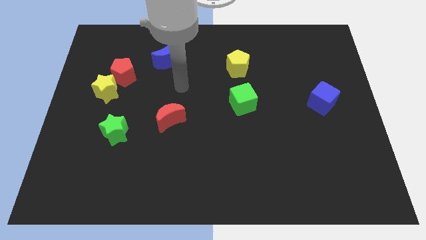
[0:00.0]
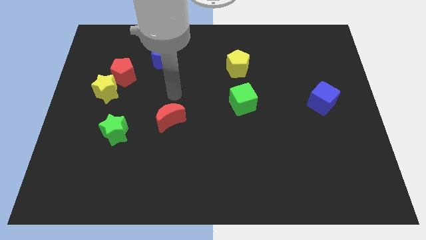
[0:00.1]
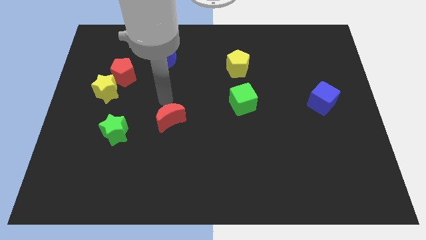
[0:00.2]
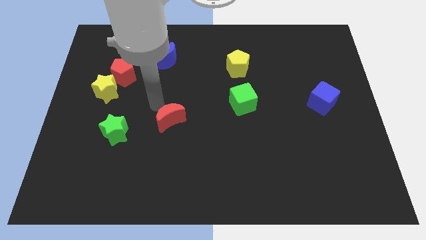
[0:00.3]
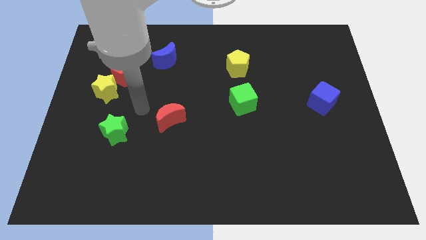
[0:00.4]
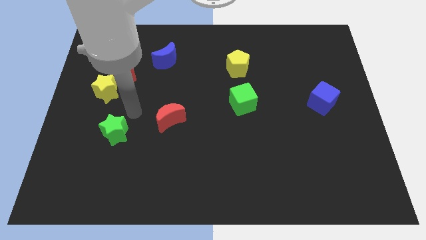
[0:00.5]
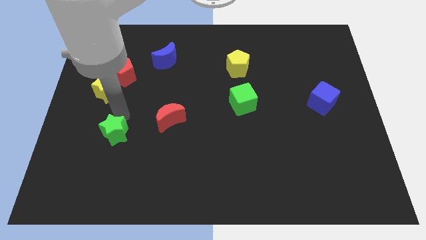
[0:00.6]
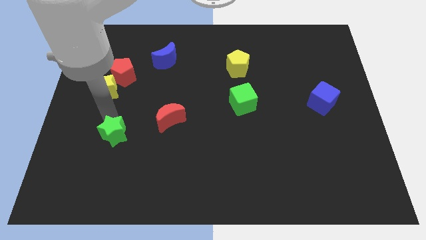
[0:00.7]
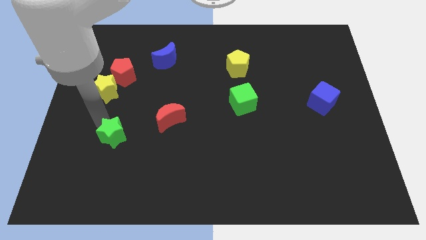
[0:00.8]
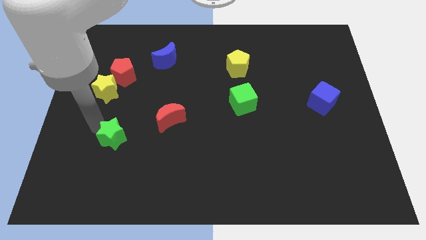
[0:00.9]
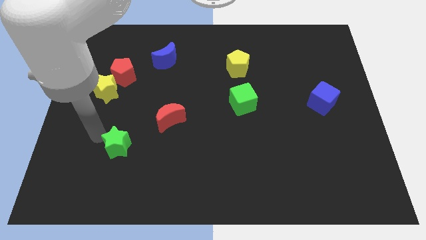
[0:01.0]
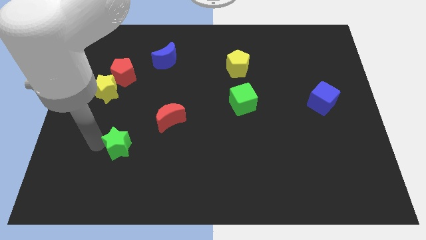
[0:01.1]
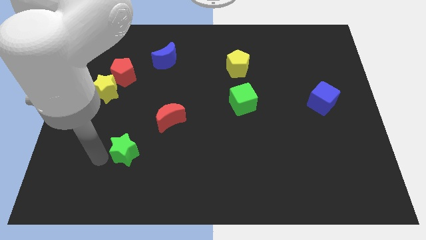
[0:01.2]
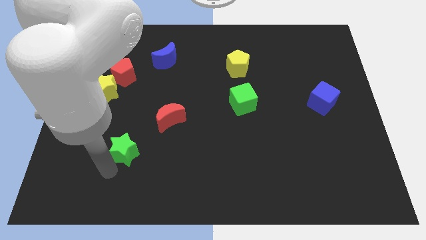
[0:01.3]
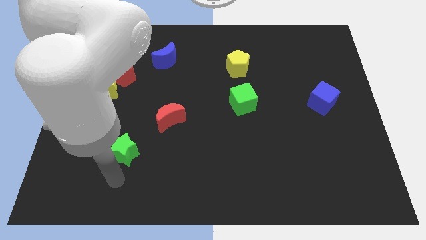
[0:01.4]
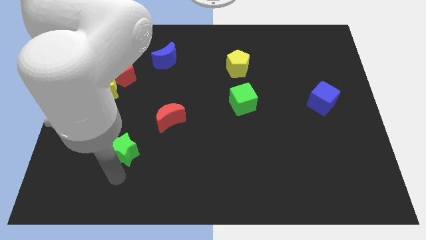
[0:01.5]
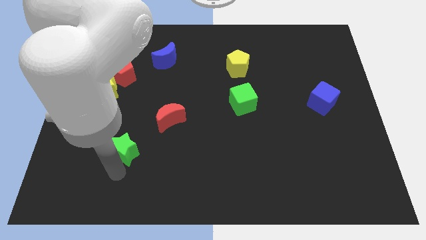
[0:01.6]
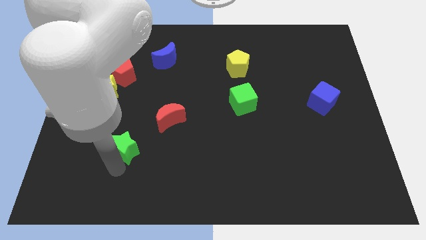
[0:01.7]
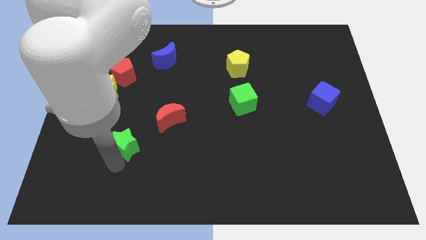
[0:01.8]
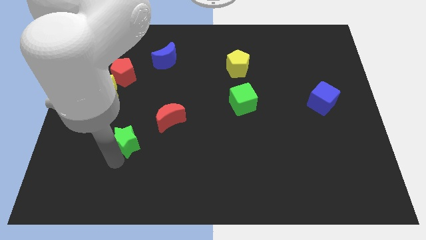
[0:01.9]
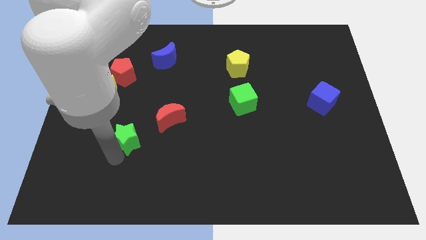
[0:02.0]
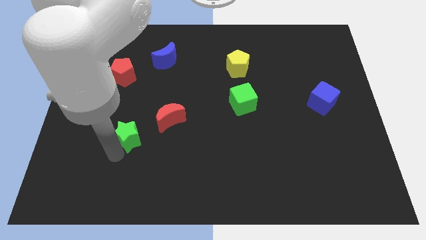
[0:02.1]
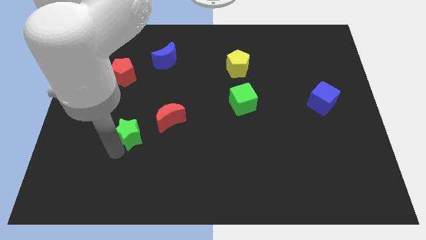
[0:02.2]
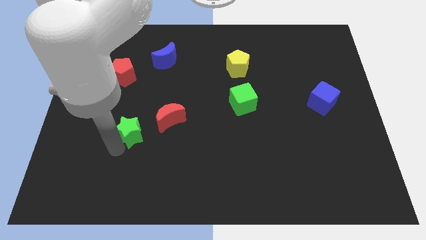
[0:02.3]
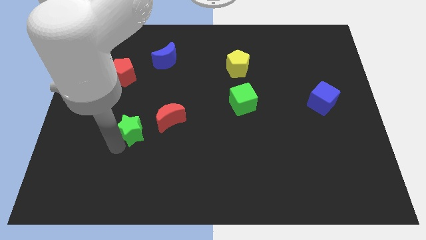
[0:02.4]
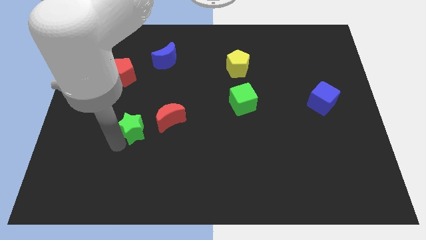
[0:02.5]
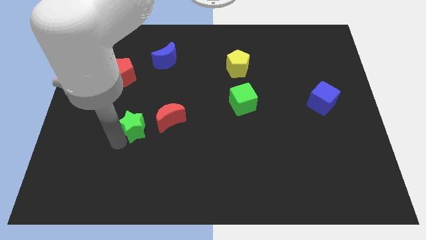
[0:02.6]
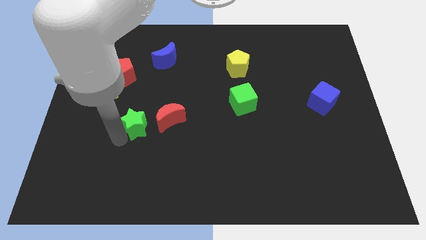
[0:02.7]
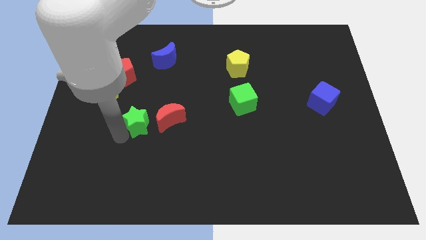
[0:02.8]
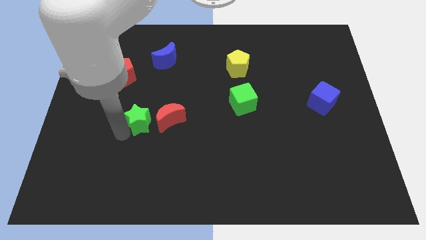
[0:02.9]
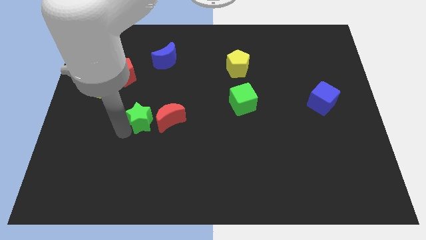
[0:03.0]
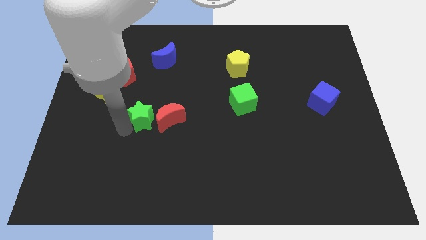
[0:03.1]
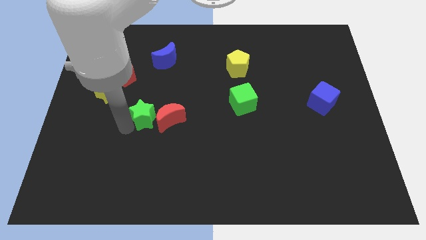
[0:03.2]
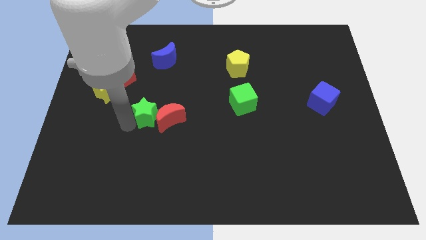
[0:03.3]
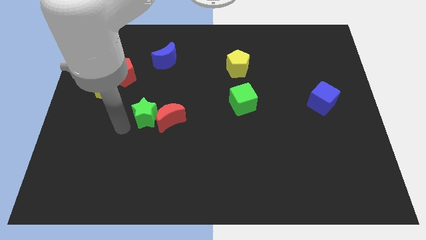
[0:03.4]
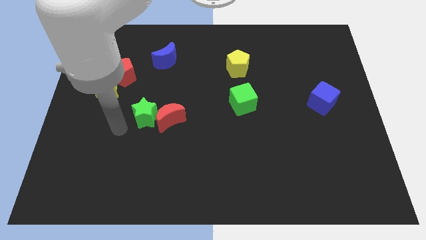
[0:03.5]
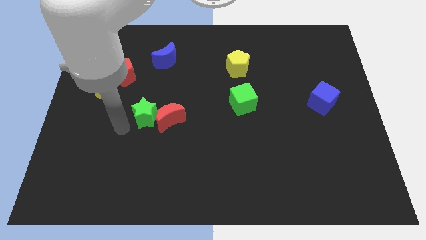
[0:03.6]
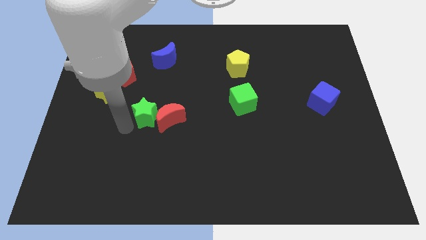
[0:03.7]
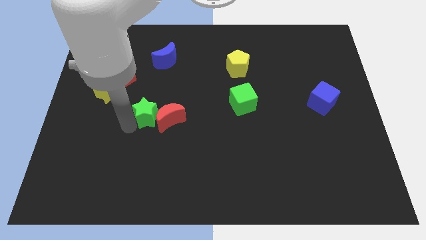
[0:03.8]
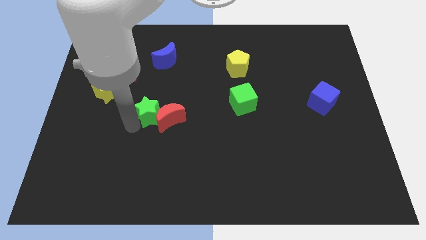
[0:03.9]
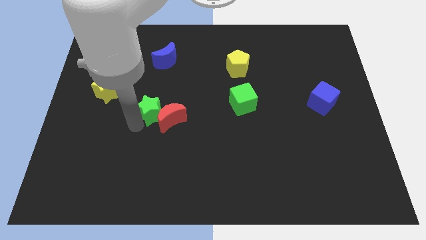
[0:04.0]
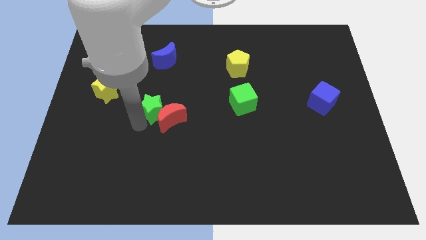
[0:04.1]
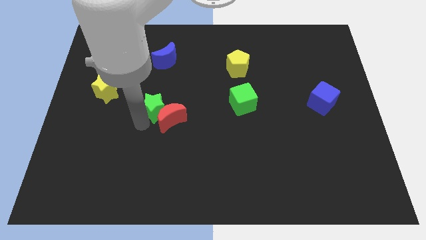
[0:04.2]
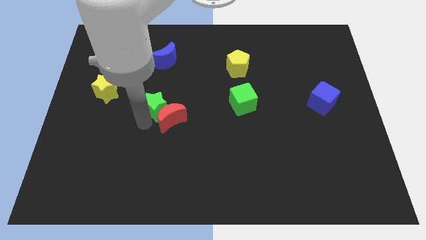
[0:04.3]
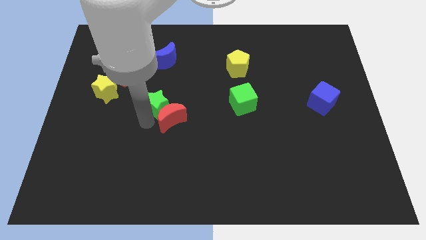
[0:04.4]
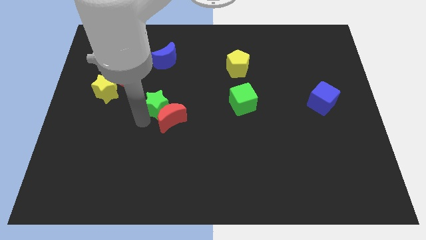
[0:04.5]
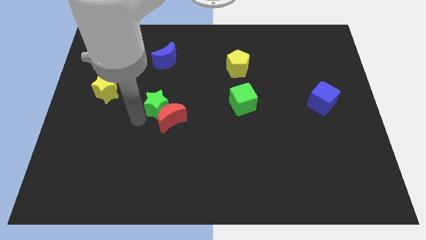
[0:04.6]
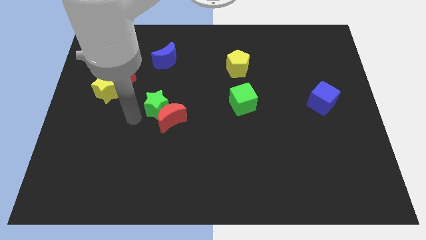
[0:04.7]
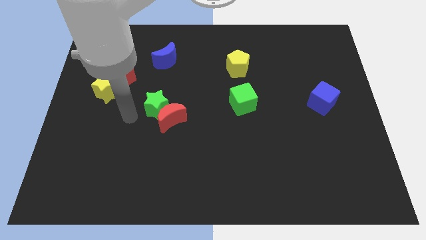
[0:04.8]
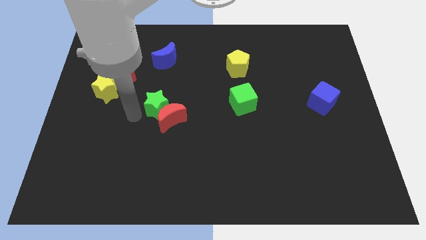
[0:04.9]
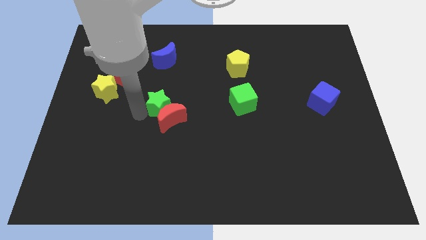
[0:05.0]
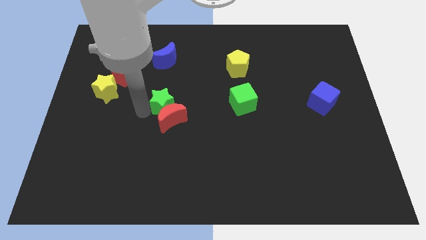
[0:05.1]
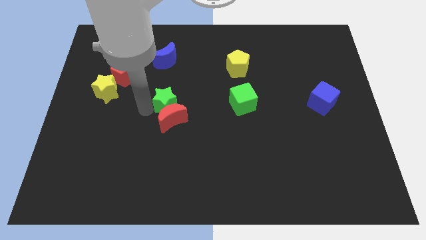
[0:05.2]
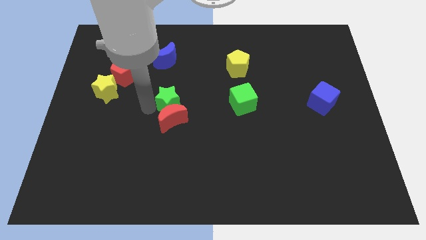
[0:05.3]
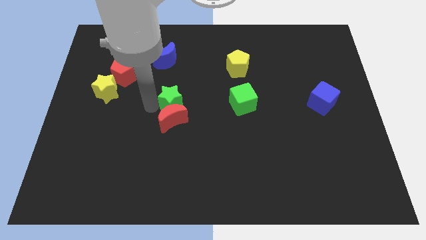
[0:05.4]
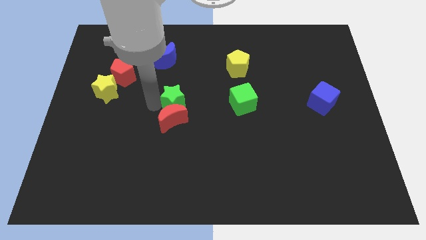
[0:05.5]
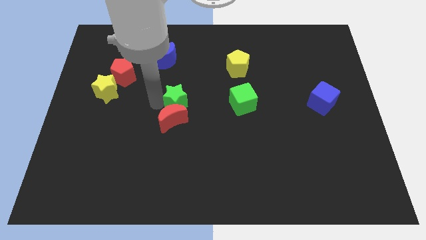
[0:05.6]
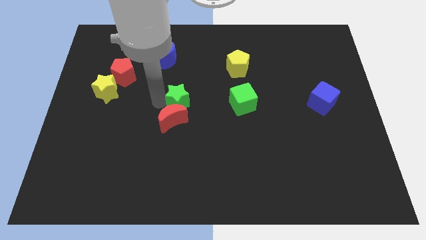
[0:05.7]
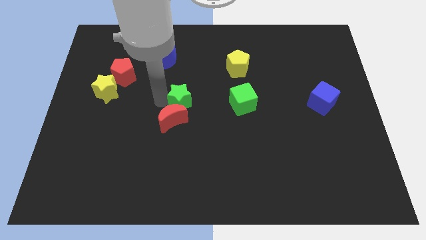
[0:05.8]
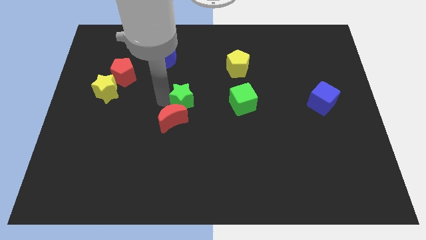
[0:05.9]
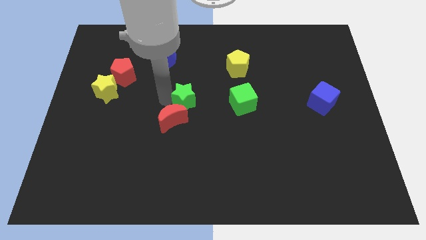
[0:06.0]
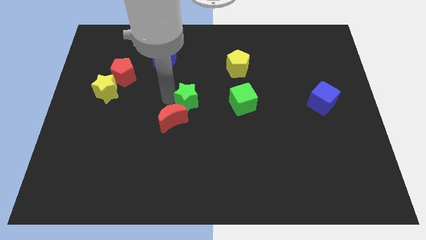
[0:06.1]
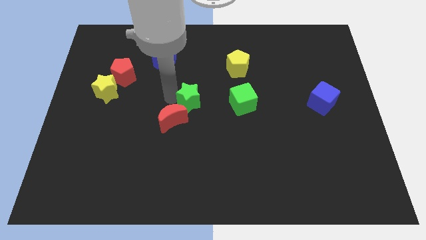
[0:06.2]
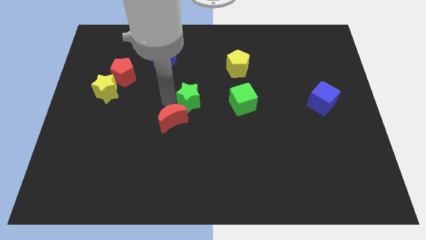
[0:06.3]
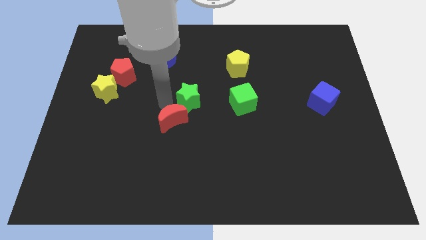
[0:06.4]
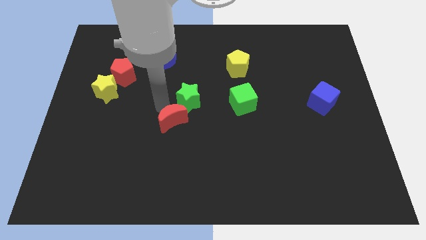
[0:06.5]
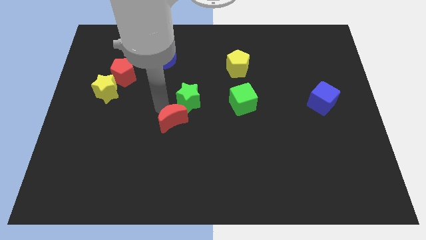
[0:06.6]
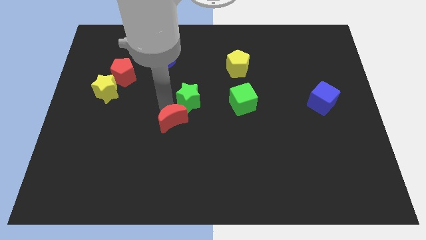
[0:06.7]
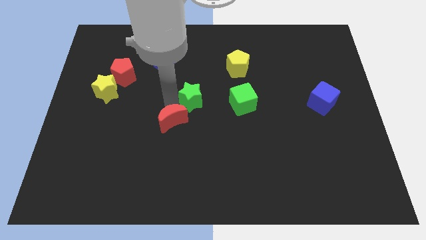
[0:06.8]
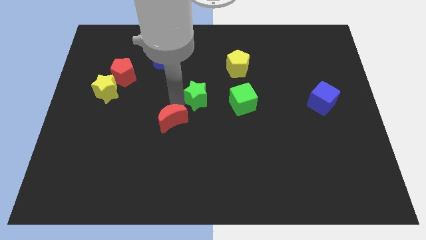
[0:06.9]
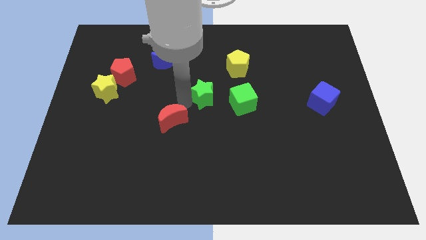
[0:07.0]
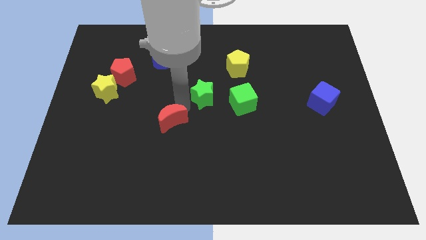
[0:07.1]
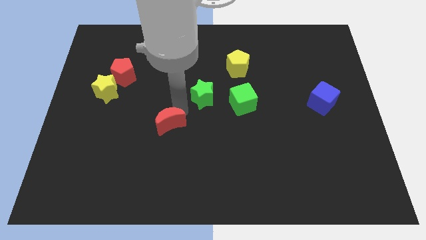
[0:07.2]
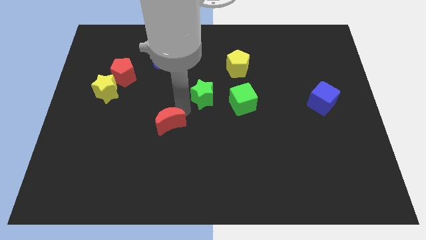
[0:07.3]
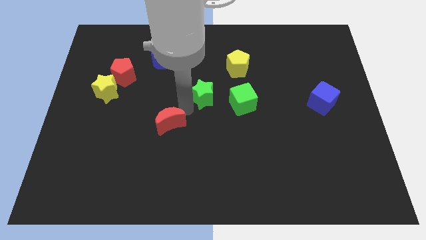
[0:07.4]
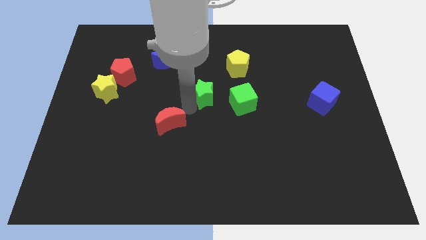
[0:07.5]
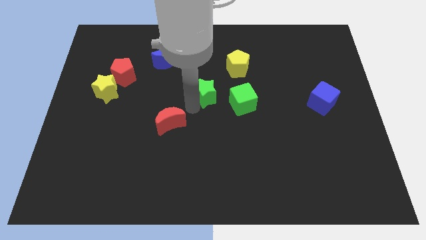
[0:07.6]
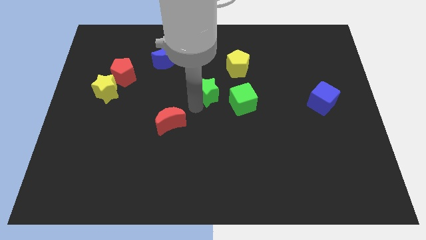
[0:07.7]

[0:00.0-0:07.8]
slide the green star diagonally up and to the left of the green cube
